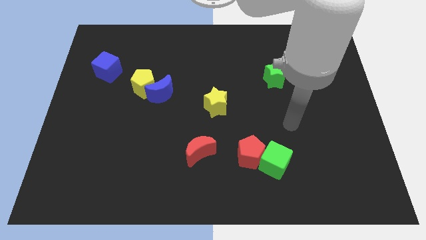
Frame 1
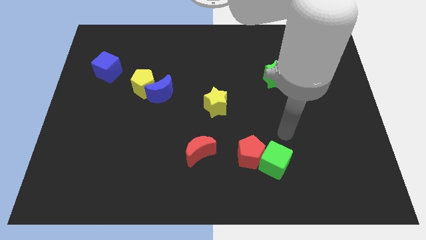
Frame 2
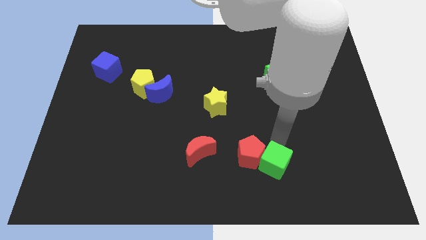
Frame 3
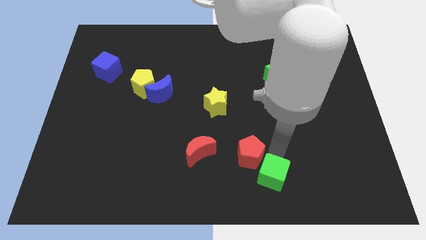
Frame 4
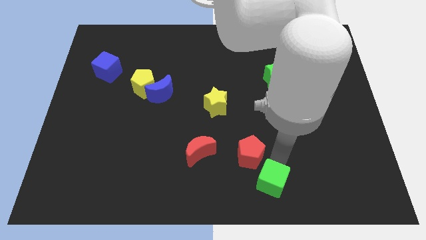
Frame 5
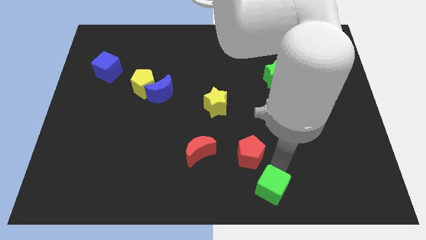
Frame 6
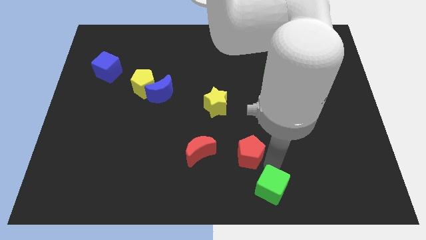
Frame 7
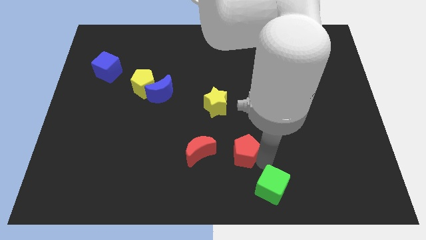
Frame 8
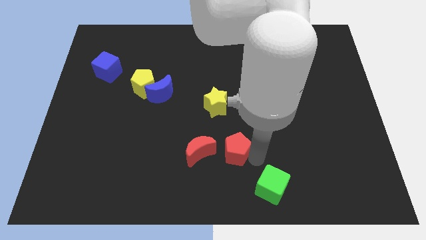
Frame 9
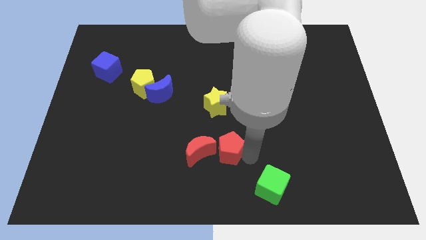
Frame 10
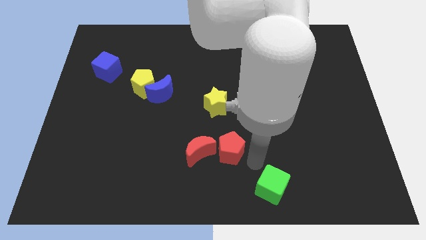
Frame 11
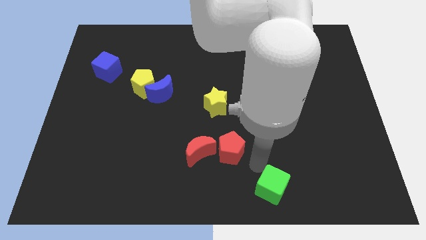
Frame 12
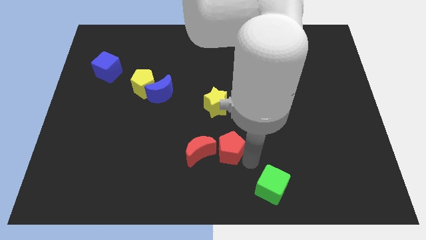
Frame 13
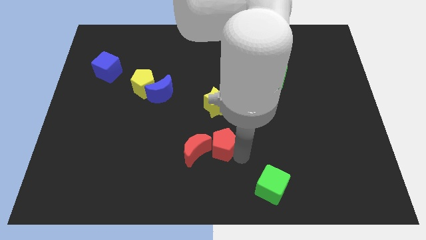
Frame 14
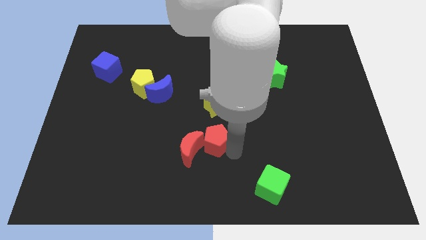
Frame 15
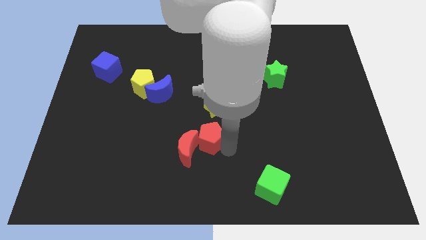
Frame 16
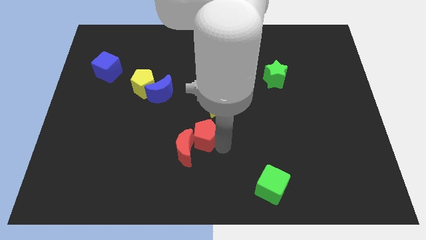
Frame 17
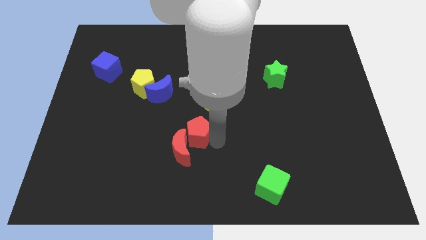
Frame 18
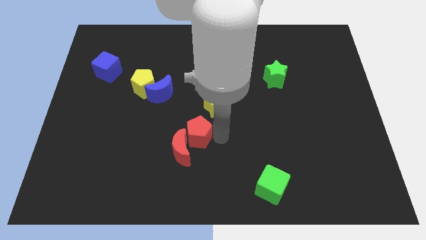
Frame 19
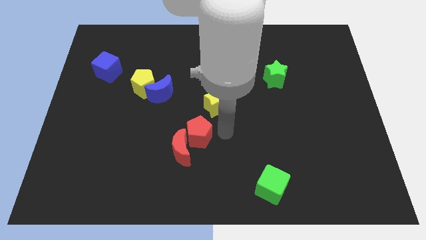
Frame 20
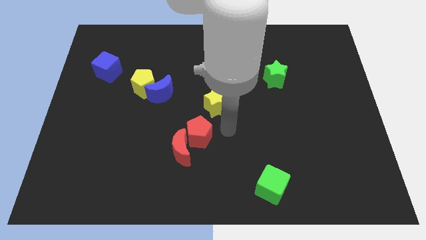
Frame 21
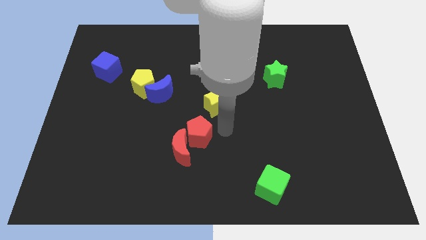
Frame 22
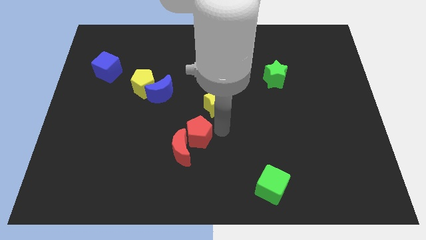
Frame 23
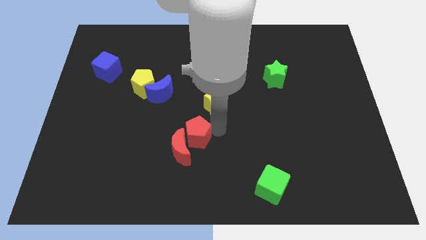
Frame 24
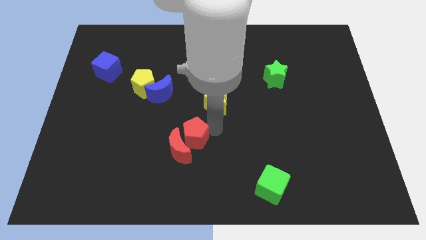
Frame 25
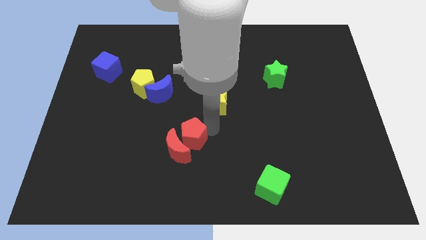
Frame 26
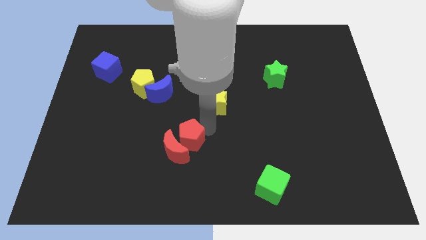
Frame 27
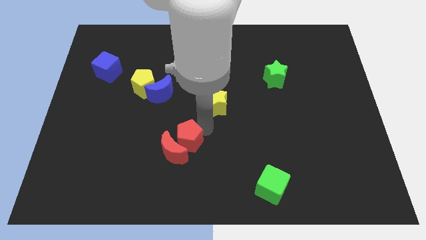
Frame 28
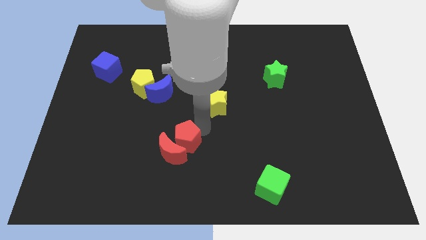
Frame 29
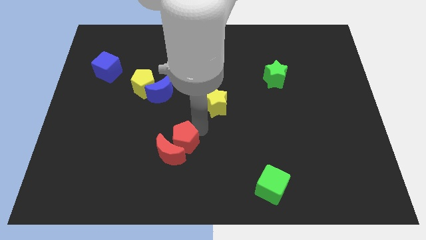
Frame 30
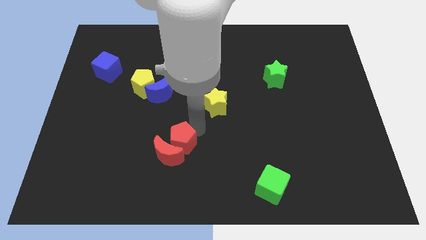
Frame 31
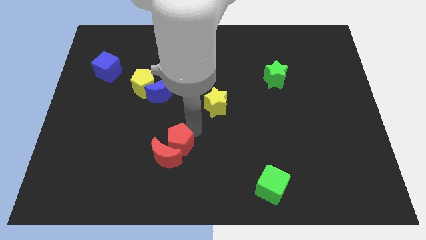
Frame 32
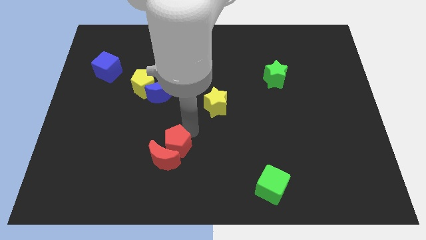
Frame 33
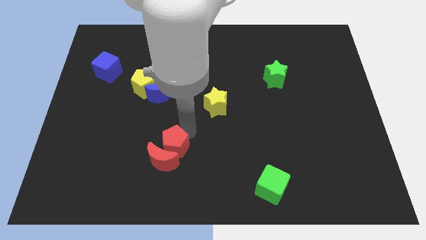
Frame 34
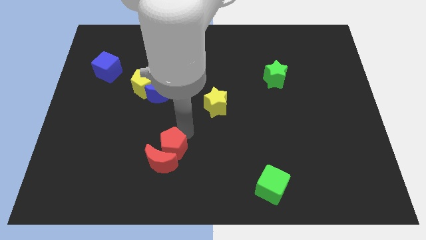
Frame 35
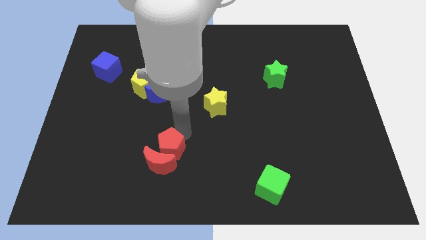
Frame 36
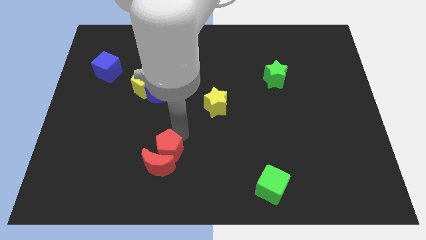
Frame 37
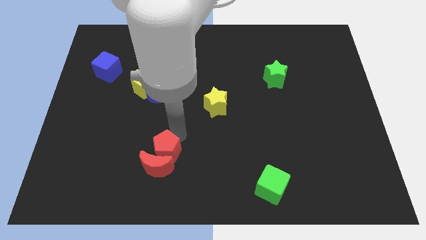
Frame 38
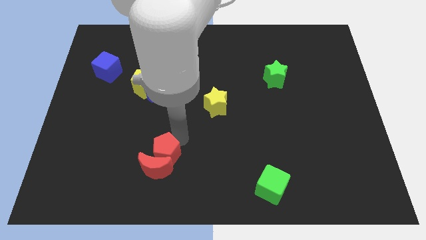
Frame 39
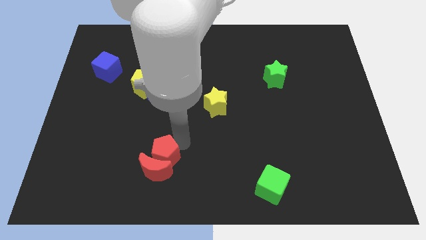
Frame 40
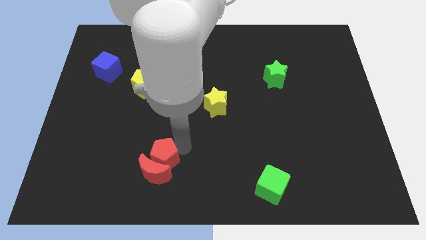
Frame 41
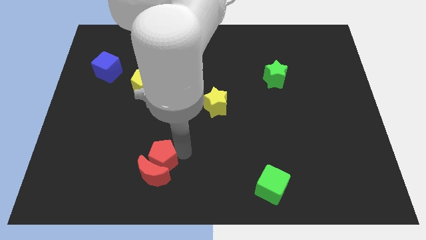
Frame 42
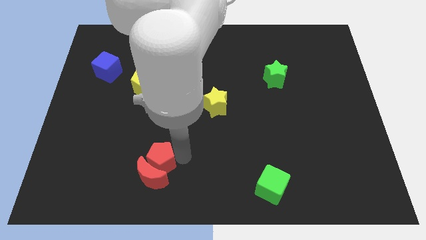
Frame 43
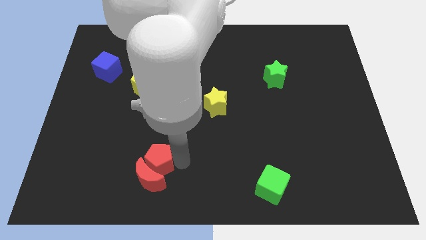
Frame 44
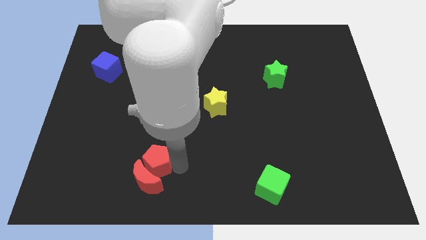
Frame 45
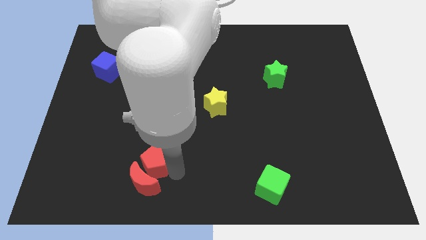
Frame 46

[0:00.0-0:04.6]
slide the red pentagon to the left

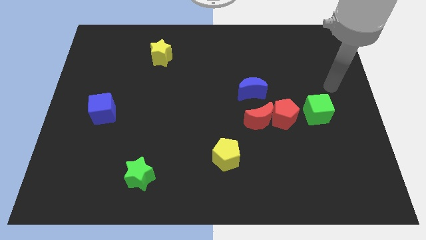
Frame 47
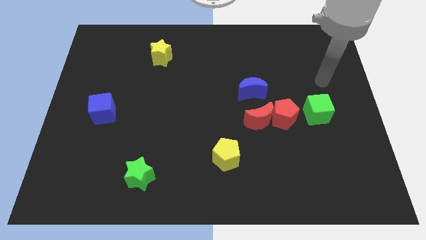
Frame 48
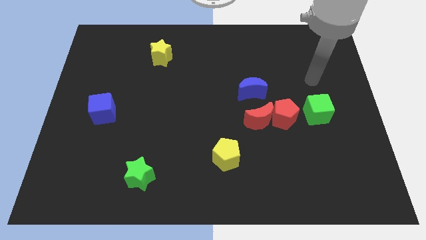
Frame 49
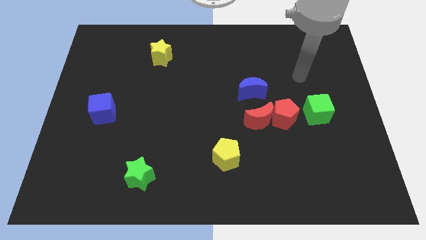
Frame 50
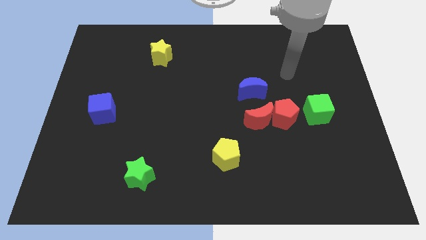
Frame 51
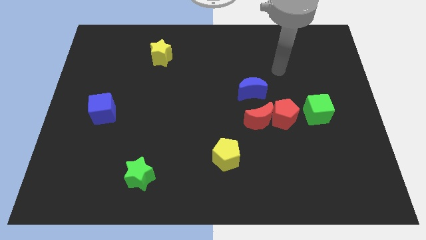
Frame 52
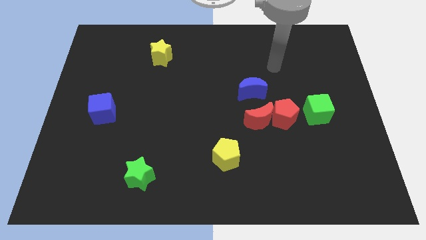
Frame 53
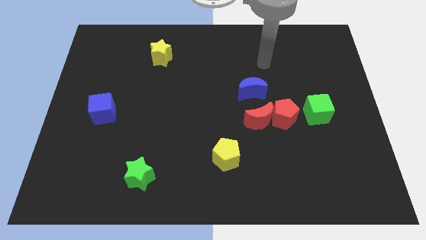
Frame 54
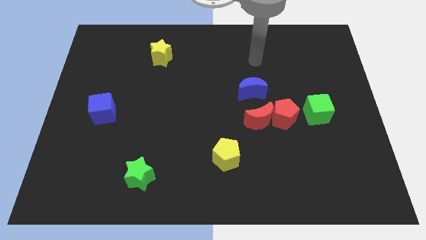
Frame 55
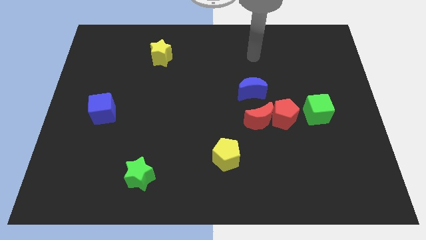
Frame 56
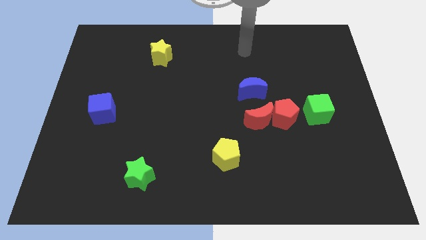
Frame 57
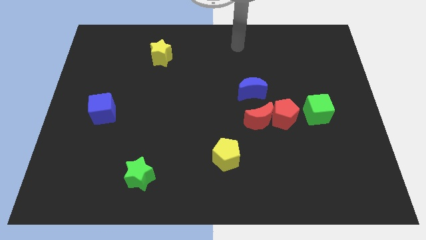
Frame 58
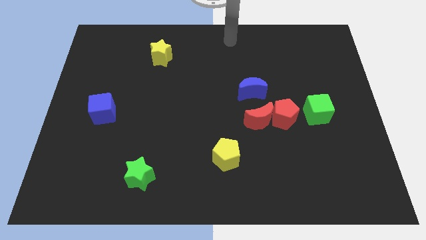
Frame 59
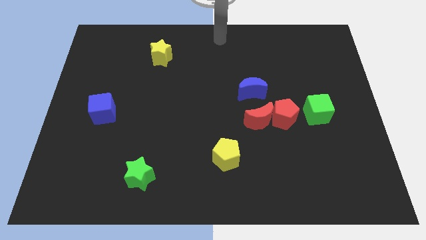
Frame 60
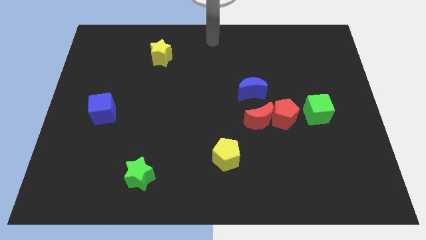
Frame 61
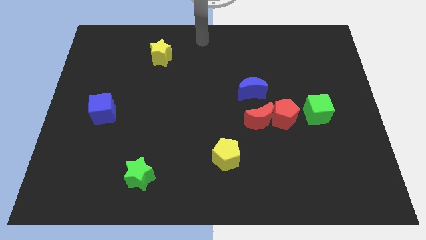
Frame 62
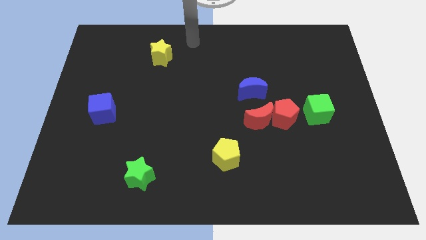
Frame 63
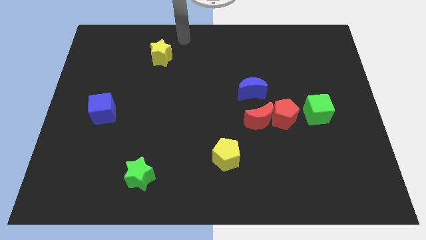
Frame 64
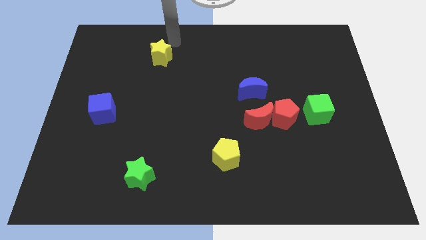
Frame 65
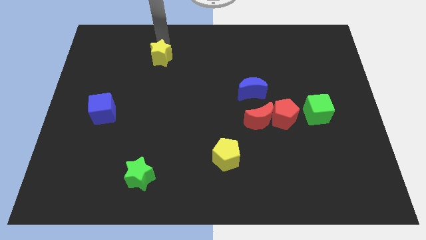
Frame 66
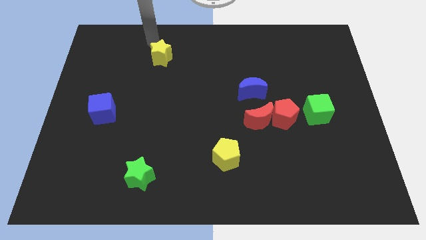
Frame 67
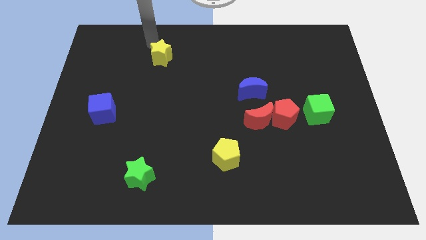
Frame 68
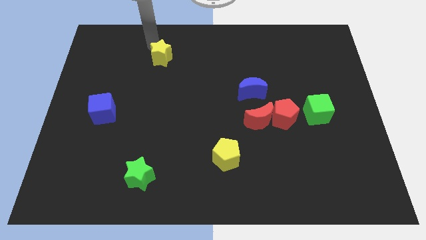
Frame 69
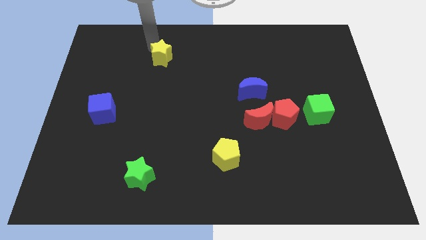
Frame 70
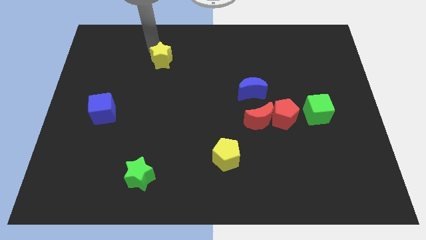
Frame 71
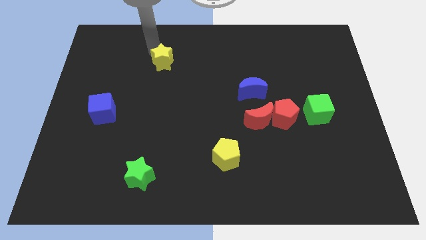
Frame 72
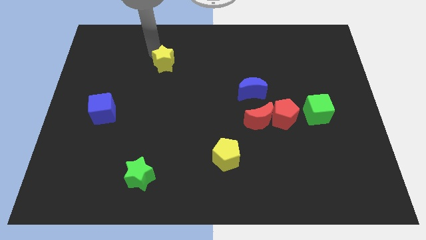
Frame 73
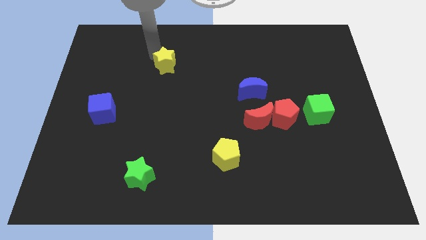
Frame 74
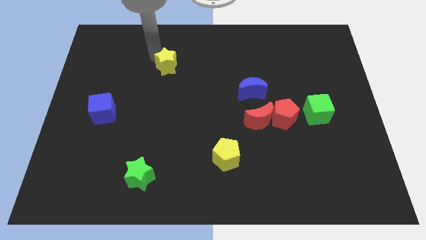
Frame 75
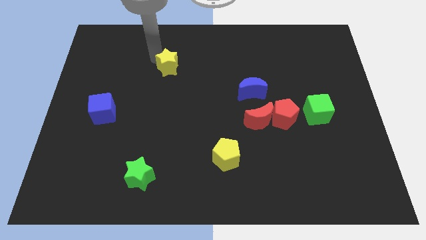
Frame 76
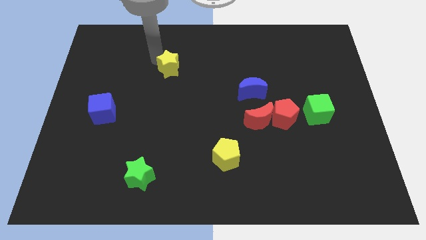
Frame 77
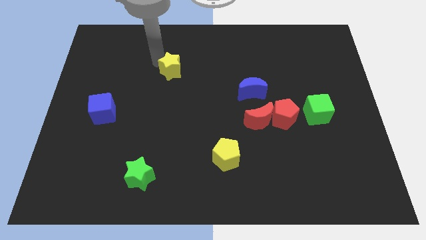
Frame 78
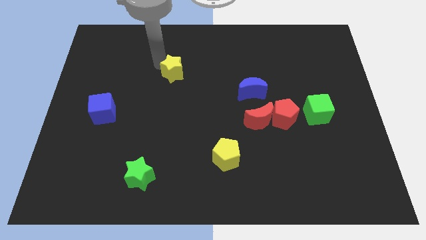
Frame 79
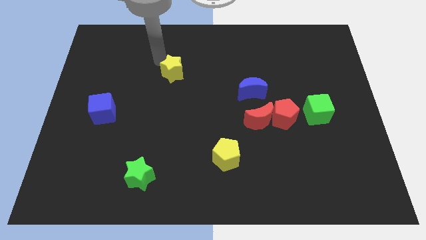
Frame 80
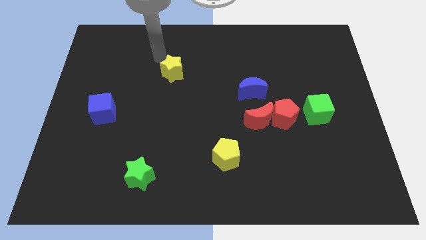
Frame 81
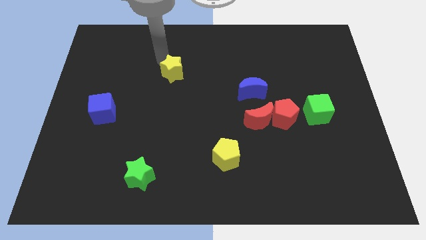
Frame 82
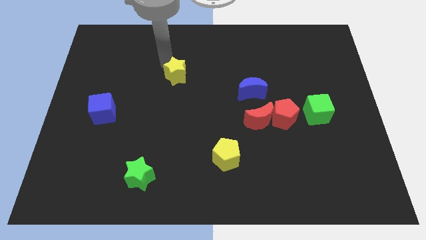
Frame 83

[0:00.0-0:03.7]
move the yellow star a bit downwards and to the right
